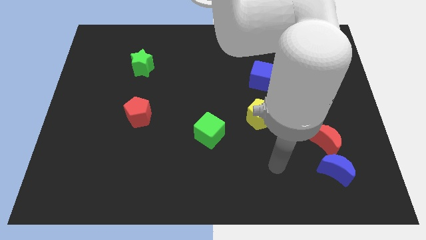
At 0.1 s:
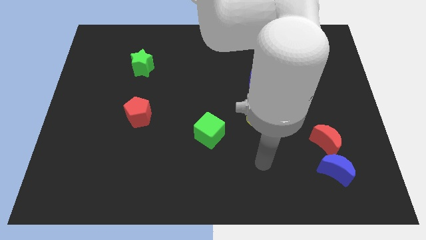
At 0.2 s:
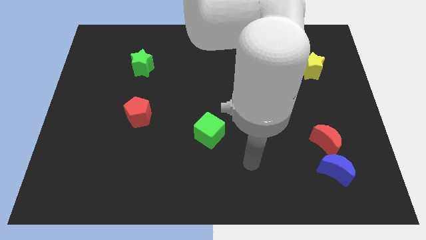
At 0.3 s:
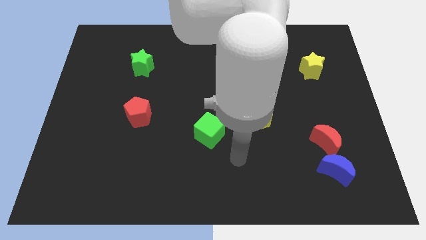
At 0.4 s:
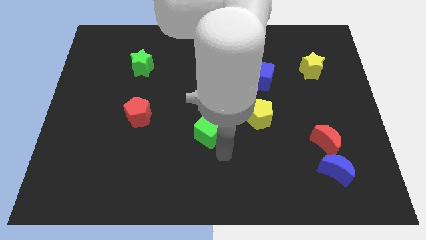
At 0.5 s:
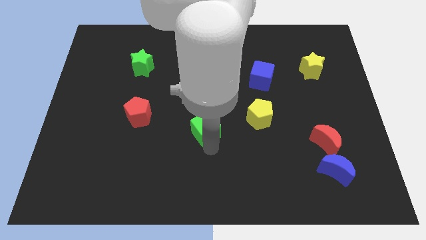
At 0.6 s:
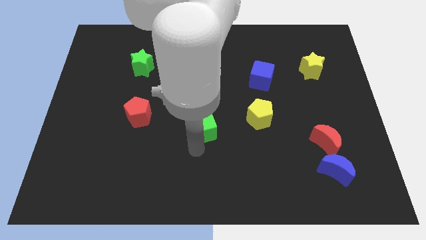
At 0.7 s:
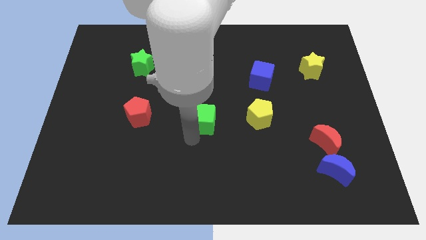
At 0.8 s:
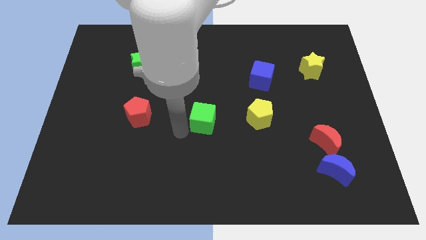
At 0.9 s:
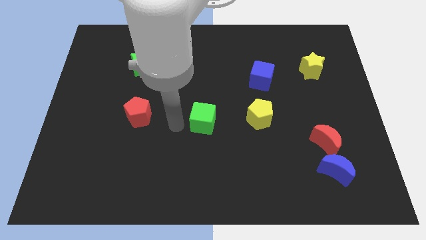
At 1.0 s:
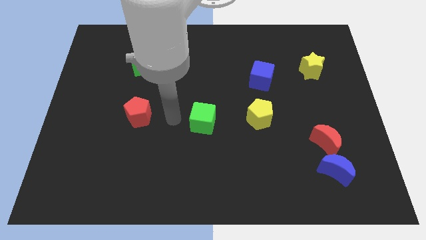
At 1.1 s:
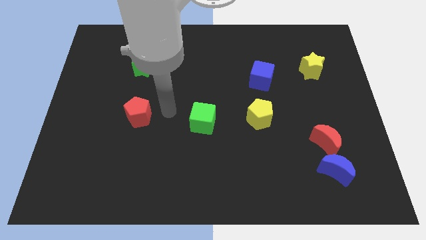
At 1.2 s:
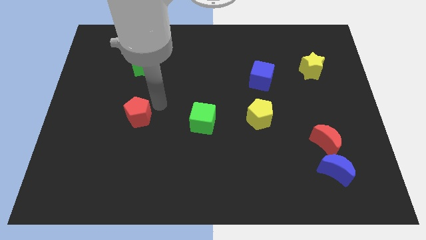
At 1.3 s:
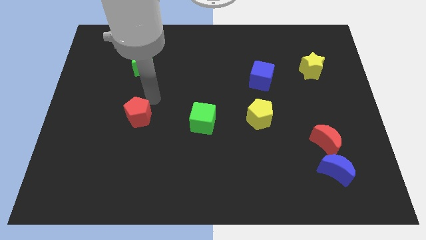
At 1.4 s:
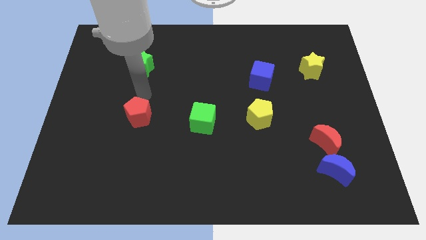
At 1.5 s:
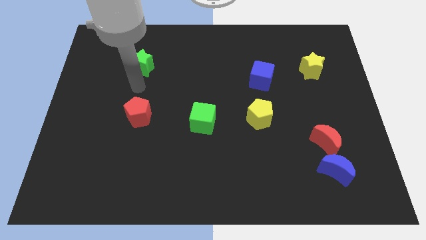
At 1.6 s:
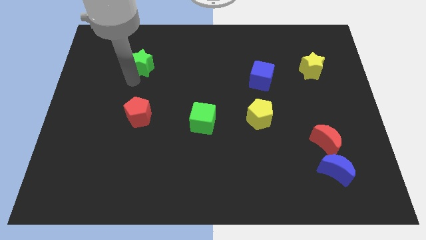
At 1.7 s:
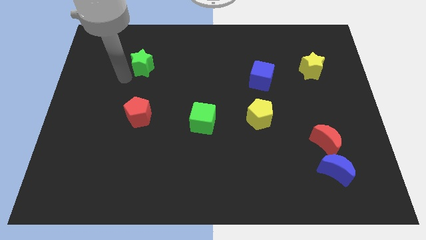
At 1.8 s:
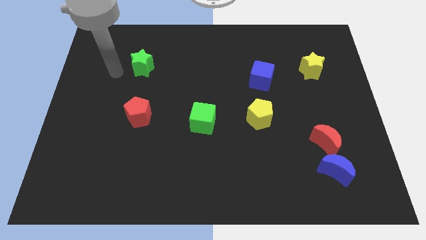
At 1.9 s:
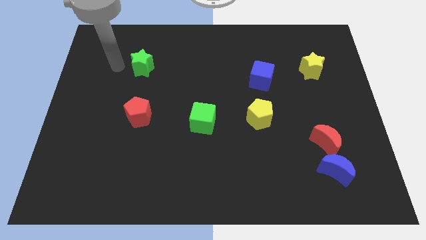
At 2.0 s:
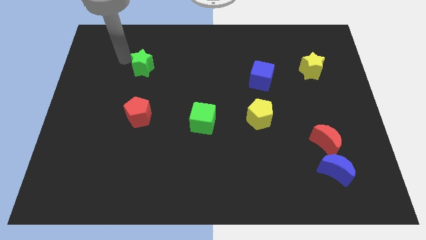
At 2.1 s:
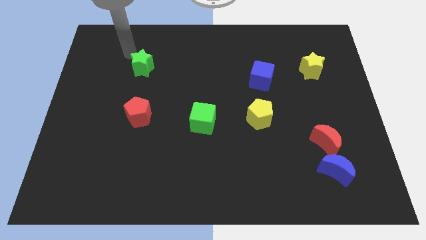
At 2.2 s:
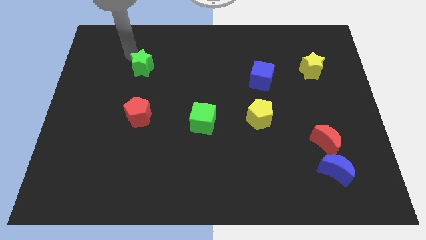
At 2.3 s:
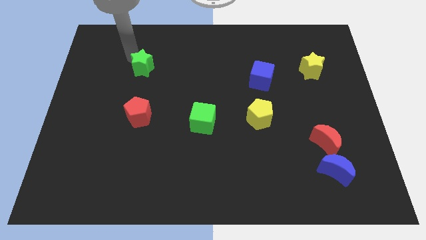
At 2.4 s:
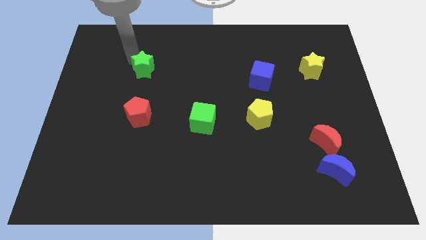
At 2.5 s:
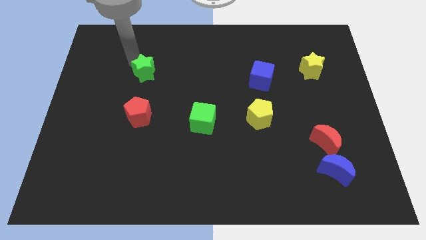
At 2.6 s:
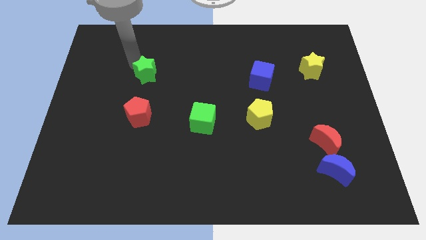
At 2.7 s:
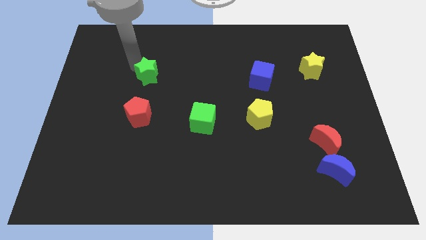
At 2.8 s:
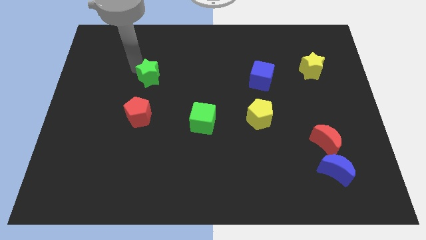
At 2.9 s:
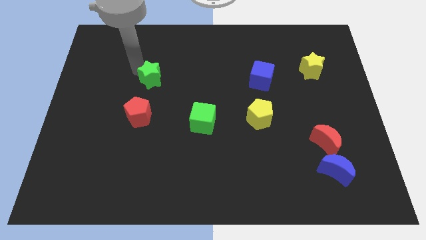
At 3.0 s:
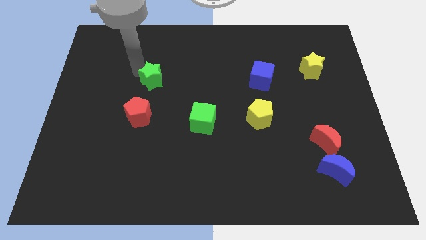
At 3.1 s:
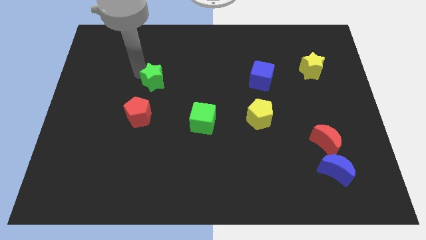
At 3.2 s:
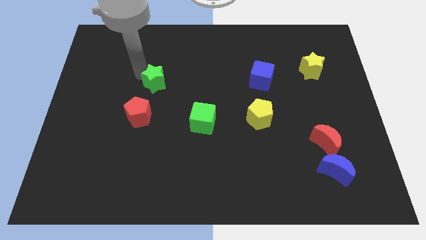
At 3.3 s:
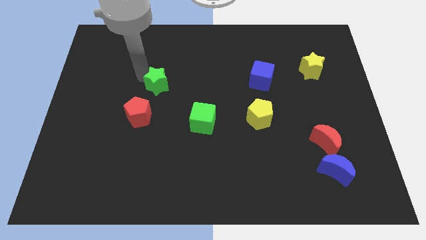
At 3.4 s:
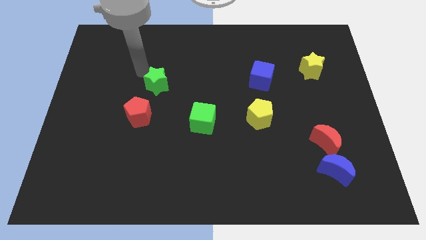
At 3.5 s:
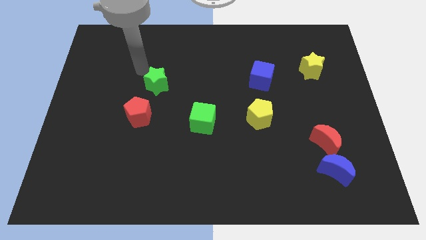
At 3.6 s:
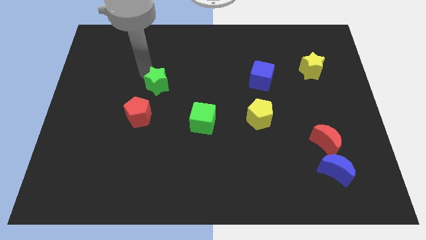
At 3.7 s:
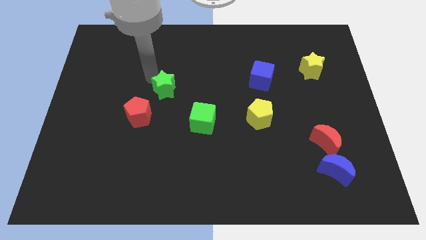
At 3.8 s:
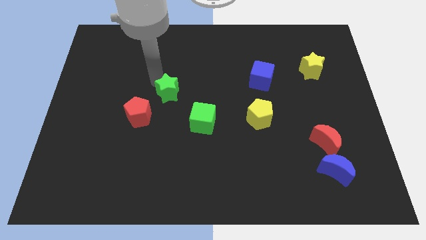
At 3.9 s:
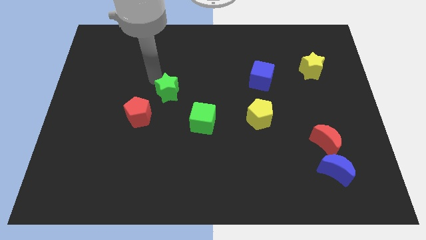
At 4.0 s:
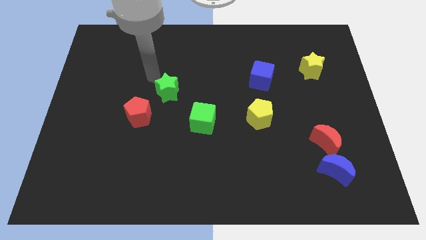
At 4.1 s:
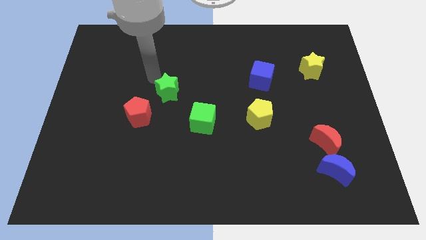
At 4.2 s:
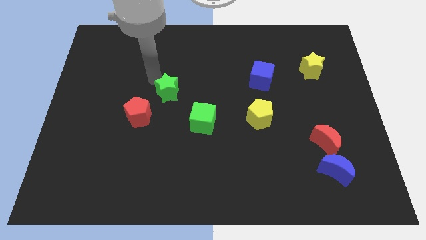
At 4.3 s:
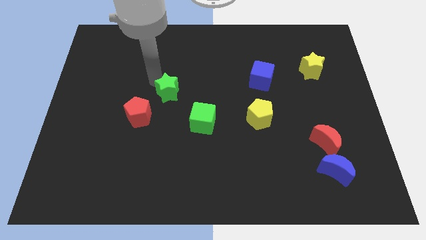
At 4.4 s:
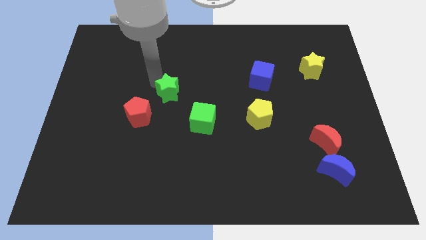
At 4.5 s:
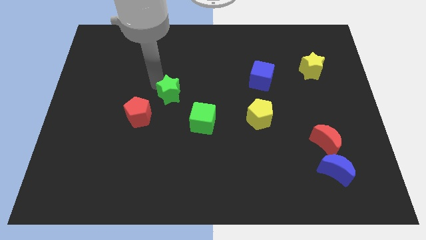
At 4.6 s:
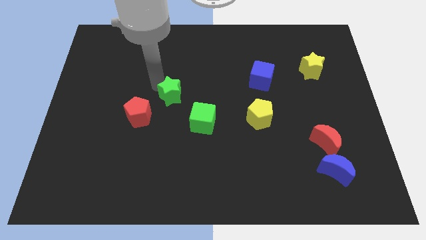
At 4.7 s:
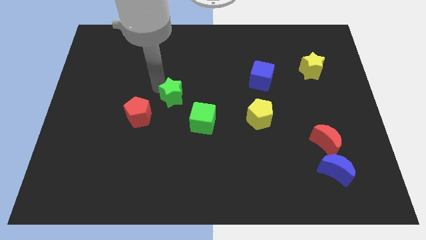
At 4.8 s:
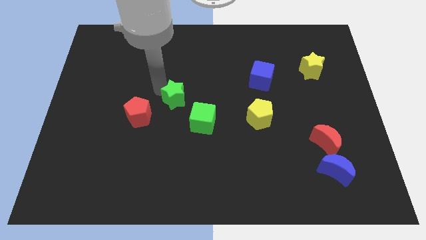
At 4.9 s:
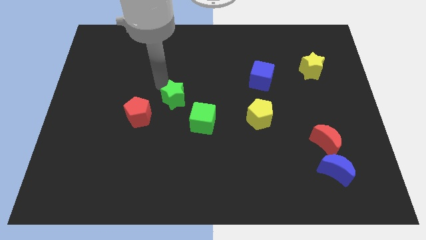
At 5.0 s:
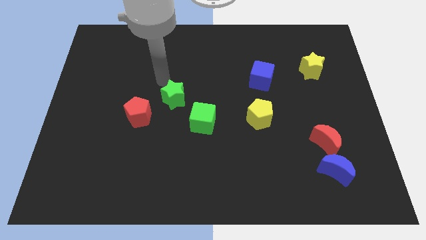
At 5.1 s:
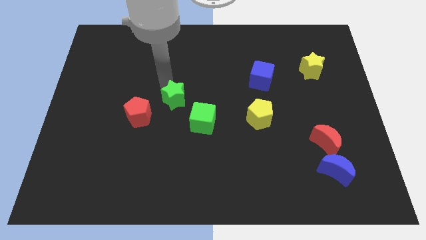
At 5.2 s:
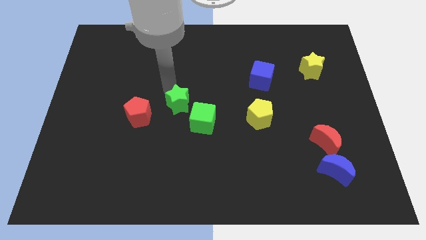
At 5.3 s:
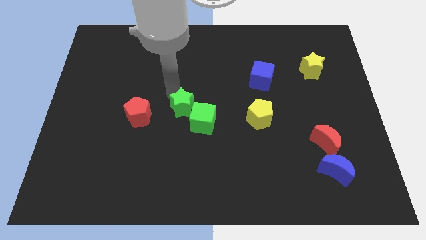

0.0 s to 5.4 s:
put the green star to the green cube

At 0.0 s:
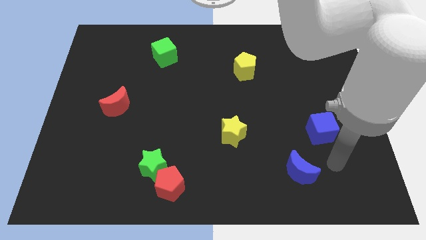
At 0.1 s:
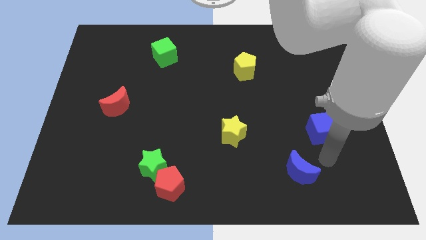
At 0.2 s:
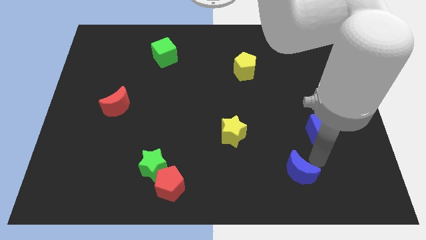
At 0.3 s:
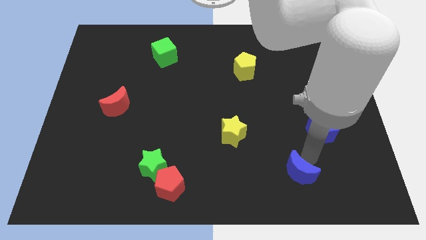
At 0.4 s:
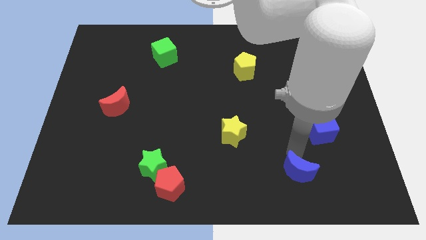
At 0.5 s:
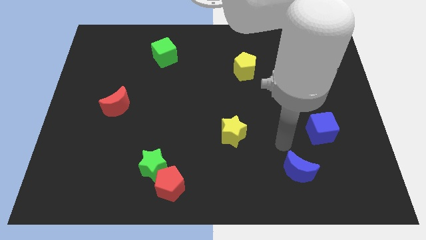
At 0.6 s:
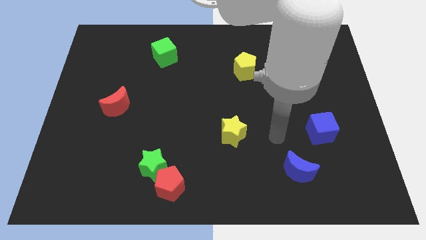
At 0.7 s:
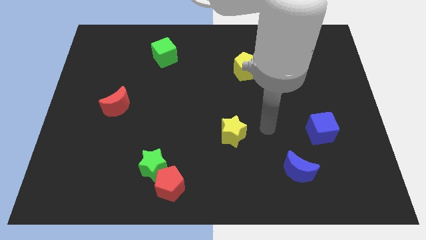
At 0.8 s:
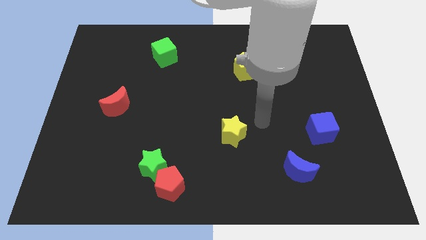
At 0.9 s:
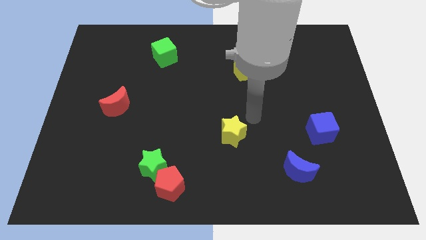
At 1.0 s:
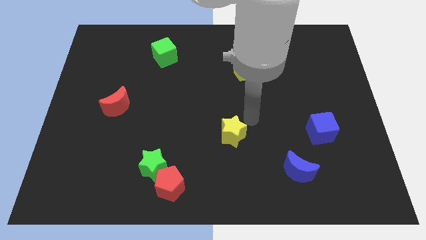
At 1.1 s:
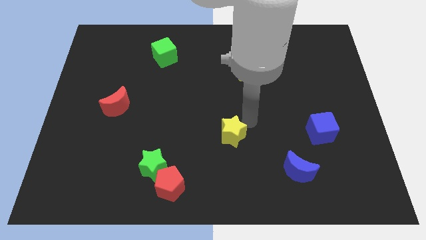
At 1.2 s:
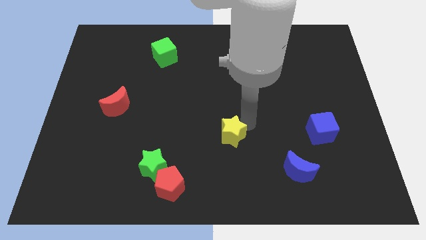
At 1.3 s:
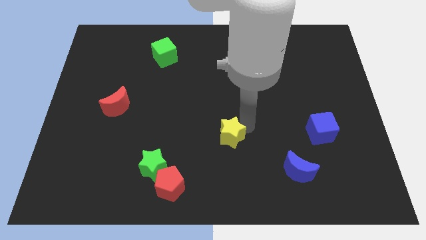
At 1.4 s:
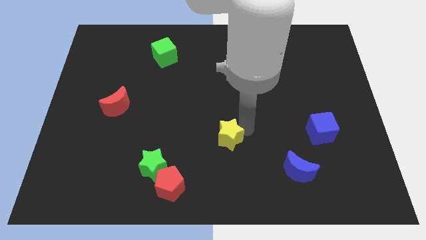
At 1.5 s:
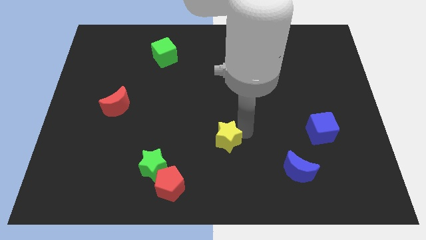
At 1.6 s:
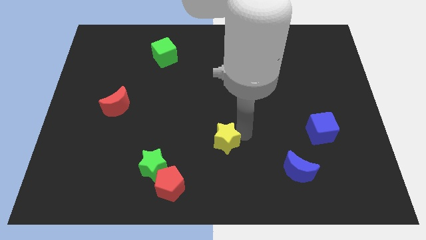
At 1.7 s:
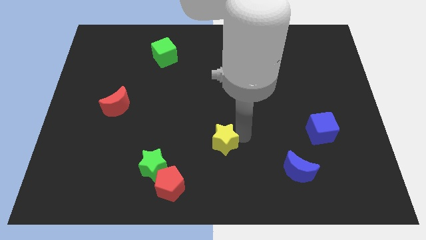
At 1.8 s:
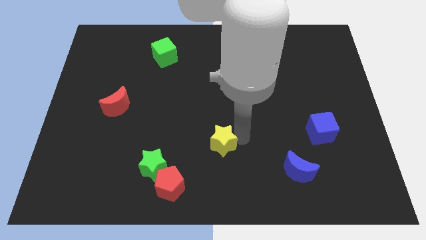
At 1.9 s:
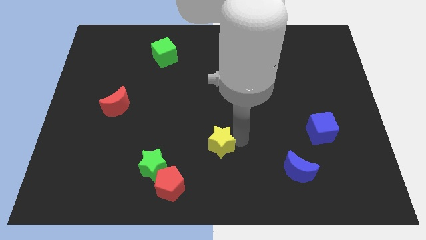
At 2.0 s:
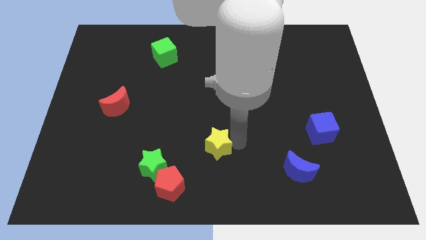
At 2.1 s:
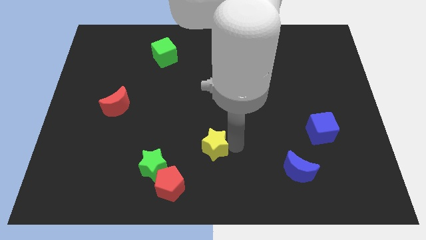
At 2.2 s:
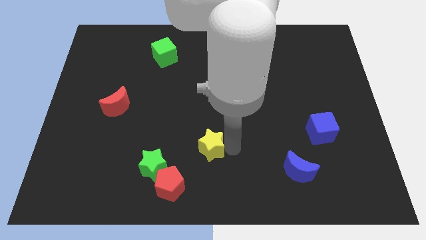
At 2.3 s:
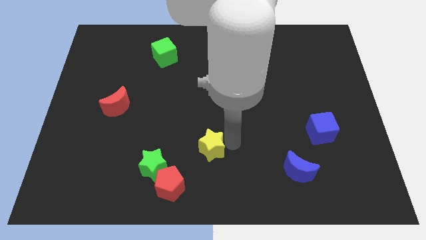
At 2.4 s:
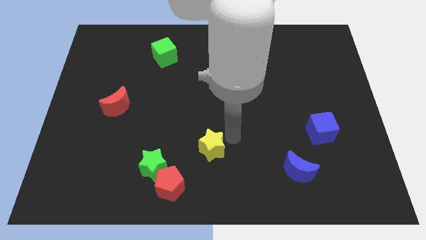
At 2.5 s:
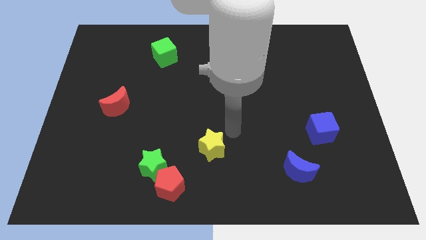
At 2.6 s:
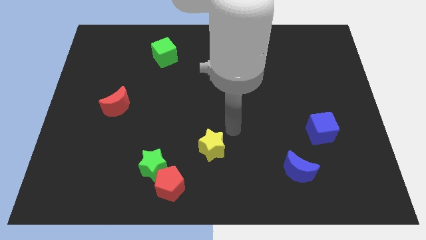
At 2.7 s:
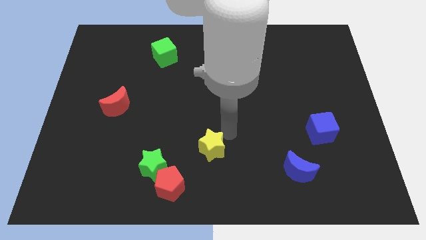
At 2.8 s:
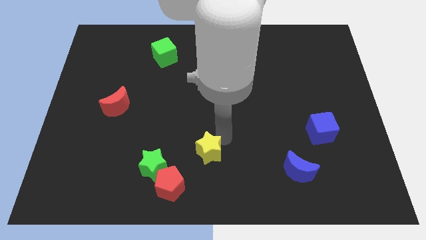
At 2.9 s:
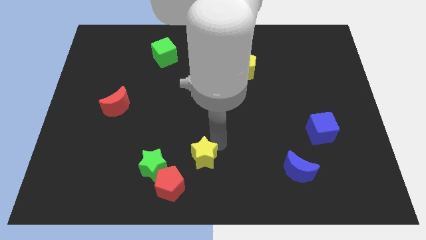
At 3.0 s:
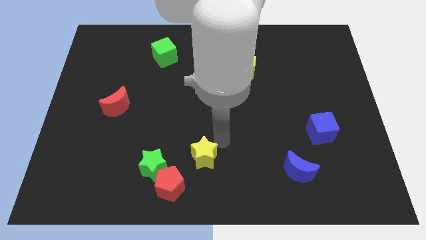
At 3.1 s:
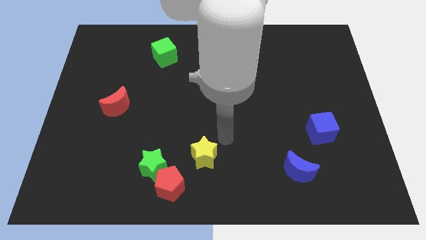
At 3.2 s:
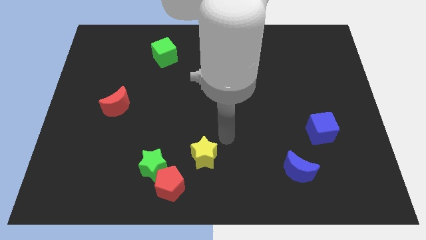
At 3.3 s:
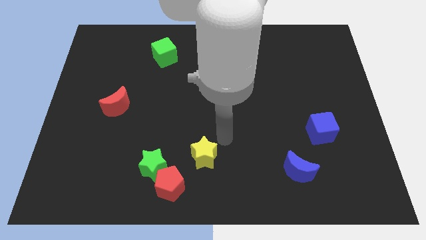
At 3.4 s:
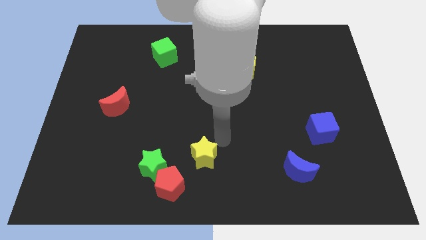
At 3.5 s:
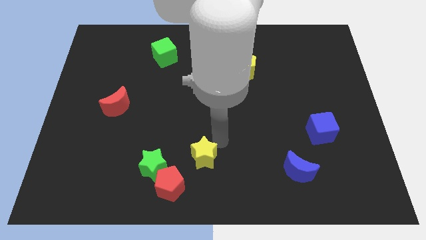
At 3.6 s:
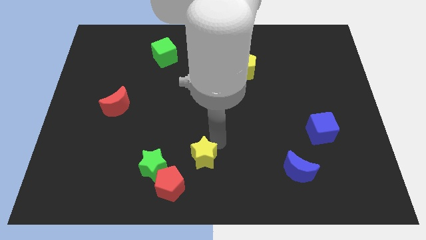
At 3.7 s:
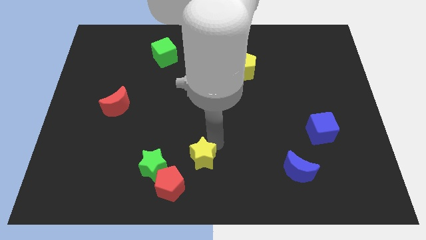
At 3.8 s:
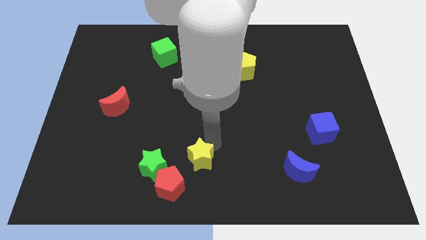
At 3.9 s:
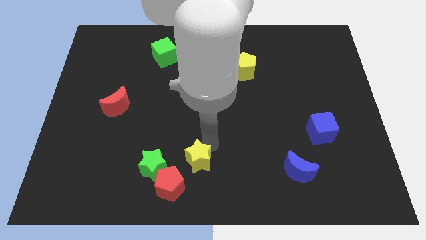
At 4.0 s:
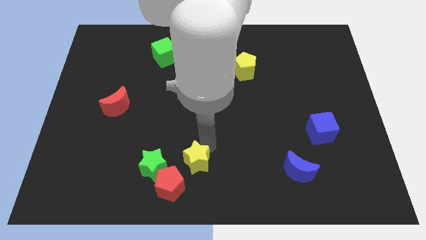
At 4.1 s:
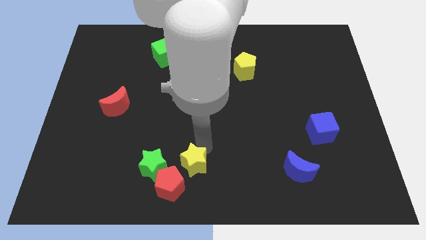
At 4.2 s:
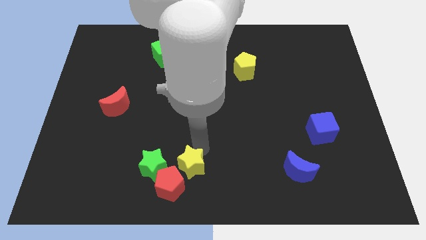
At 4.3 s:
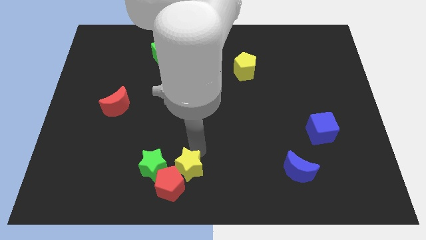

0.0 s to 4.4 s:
push the yellow star to the red pentagon
